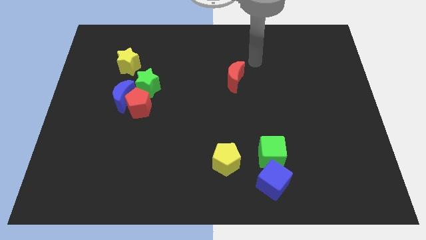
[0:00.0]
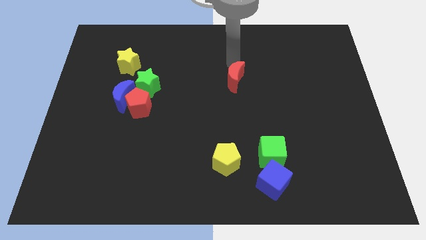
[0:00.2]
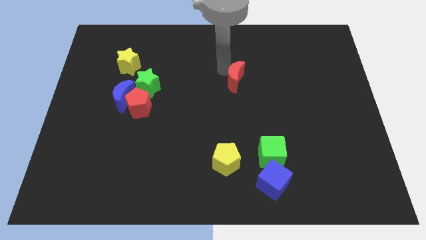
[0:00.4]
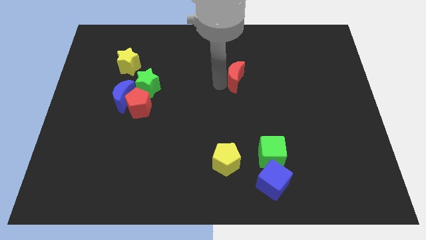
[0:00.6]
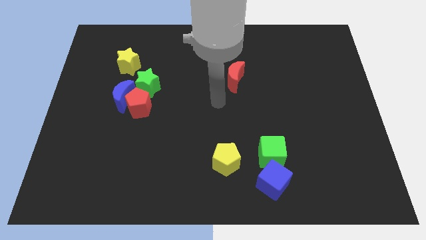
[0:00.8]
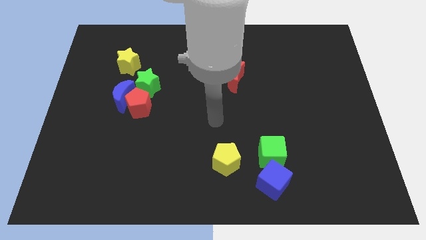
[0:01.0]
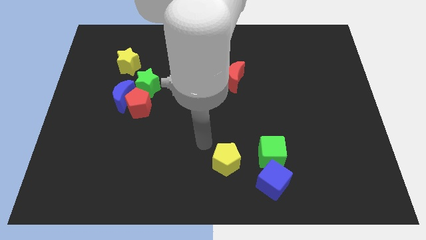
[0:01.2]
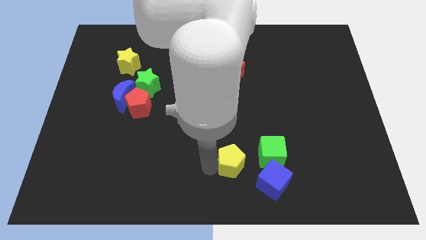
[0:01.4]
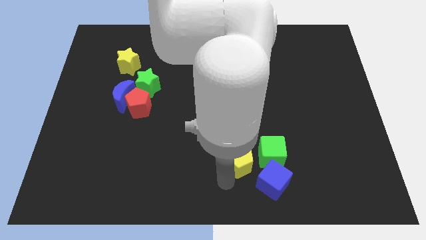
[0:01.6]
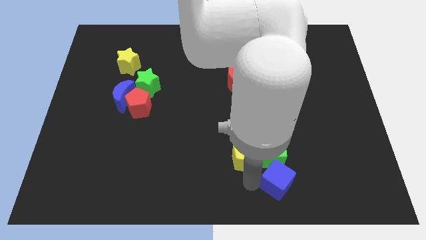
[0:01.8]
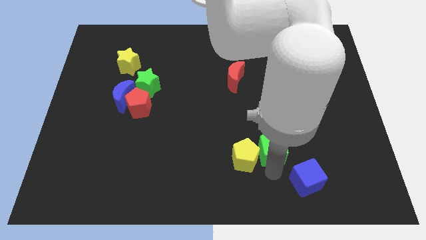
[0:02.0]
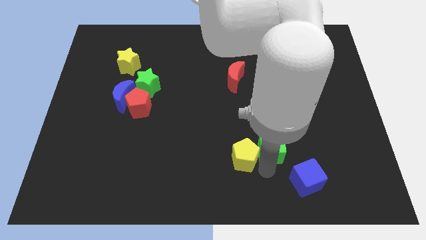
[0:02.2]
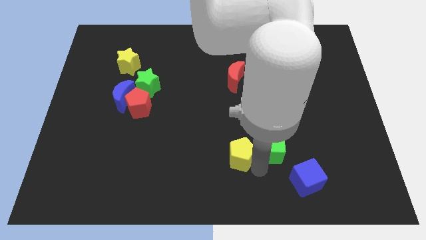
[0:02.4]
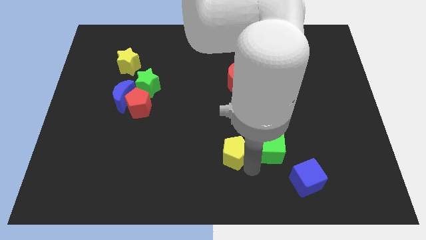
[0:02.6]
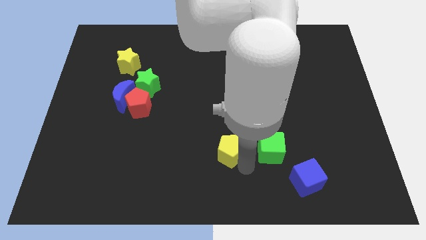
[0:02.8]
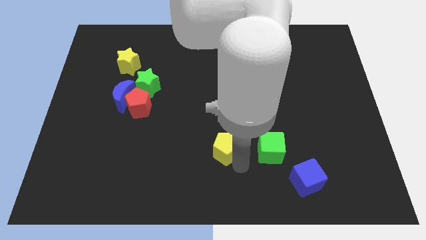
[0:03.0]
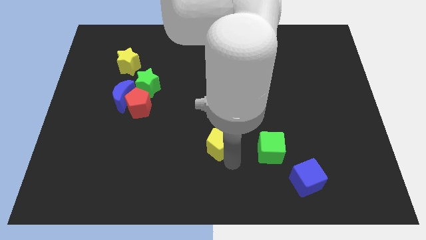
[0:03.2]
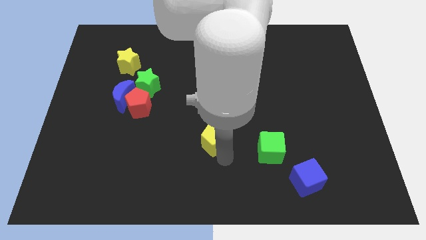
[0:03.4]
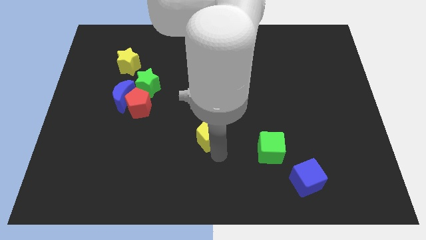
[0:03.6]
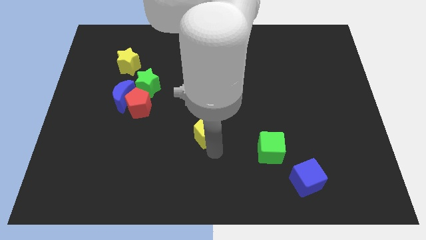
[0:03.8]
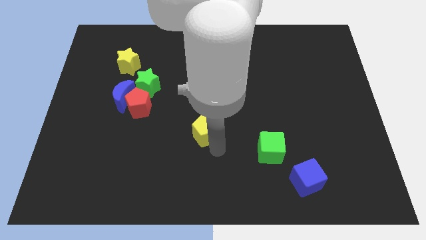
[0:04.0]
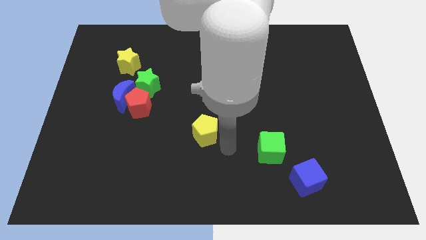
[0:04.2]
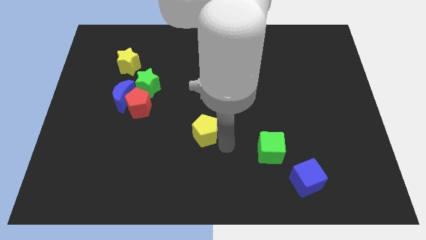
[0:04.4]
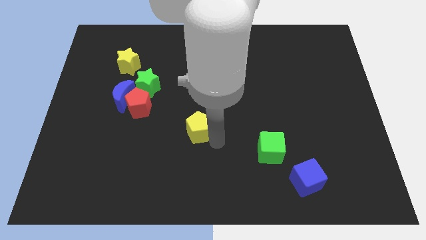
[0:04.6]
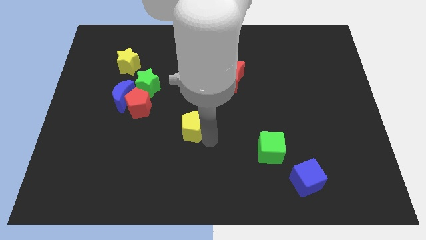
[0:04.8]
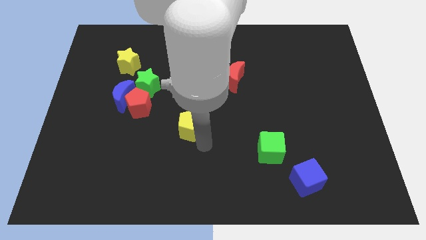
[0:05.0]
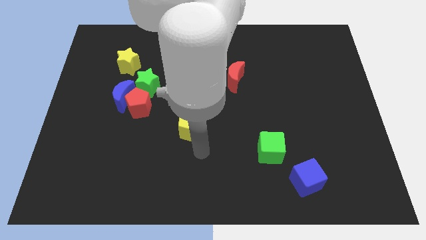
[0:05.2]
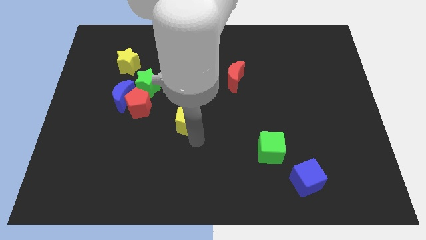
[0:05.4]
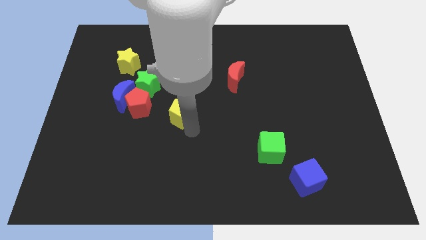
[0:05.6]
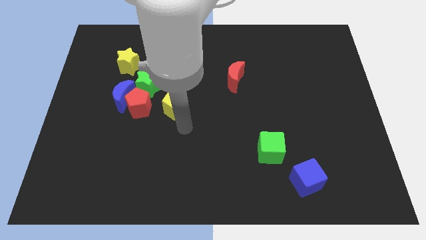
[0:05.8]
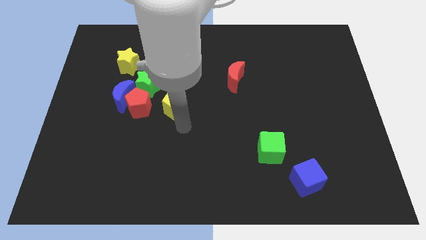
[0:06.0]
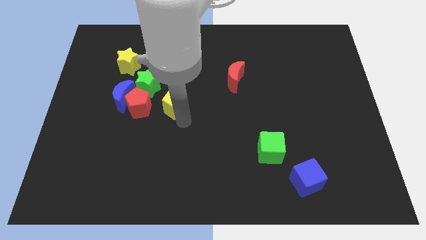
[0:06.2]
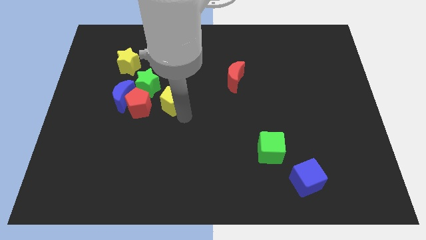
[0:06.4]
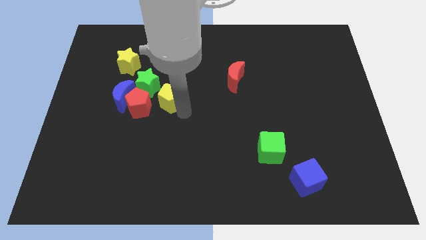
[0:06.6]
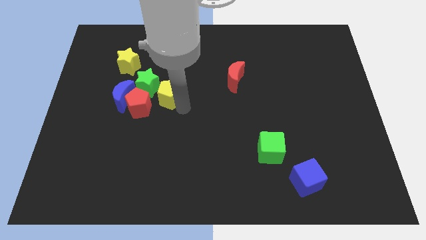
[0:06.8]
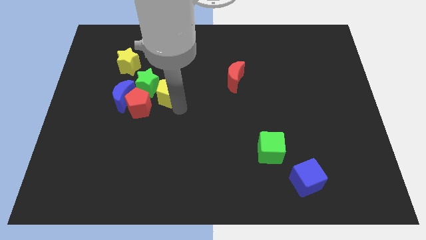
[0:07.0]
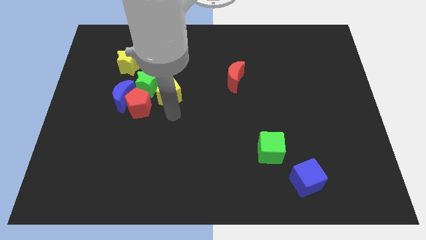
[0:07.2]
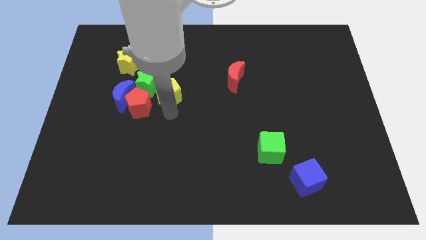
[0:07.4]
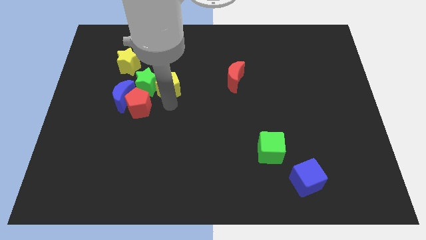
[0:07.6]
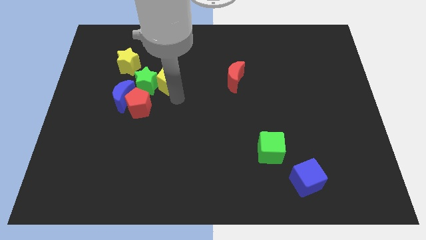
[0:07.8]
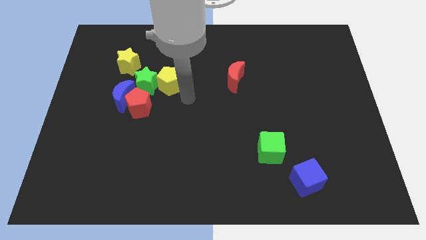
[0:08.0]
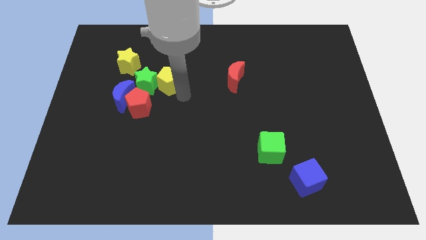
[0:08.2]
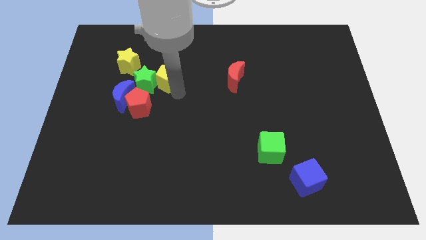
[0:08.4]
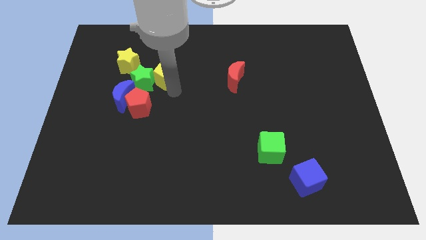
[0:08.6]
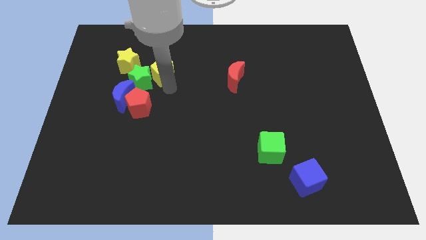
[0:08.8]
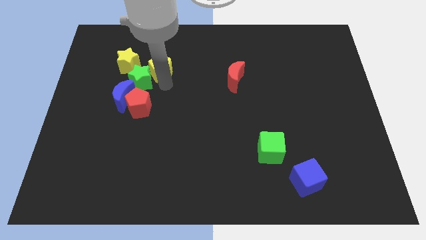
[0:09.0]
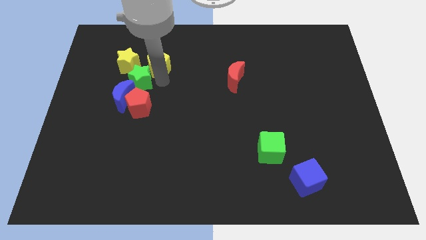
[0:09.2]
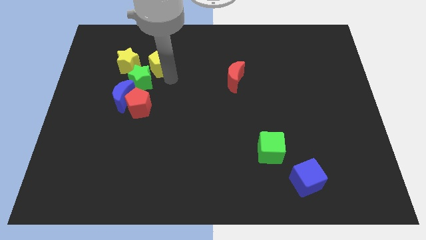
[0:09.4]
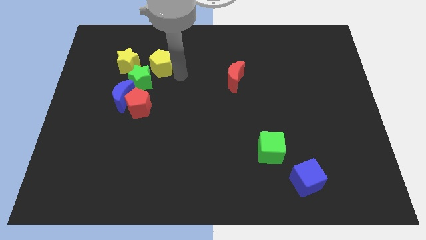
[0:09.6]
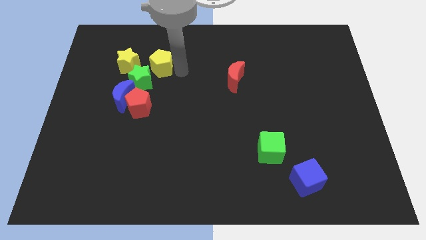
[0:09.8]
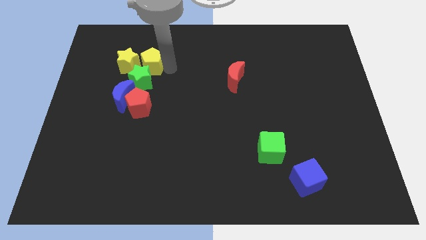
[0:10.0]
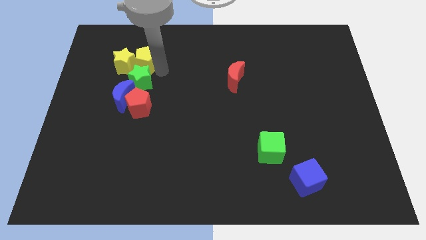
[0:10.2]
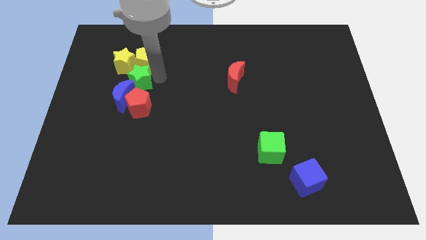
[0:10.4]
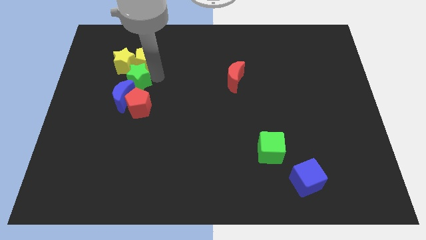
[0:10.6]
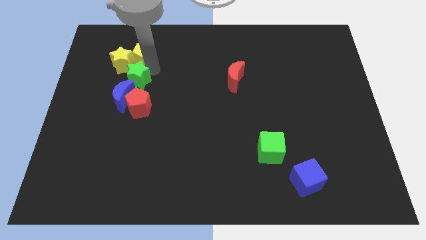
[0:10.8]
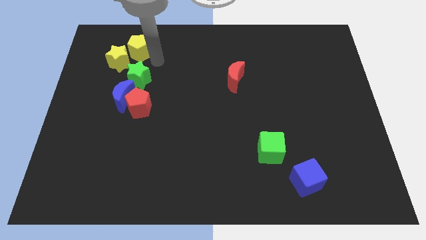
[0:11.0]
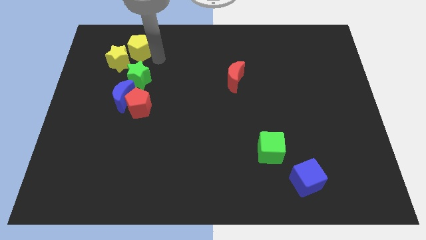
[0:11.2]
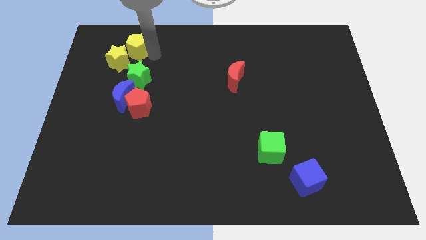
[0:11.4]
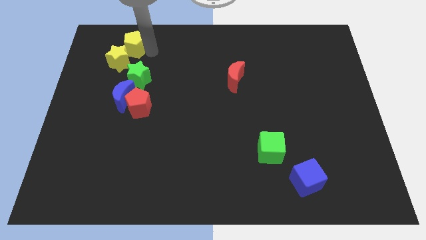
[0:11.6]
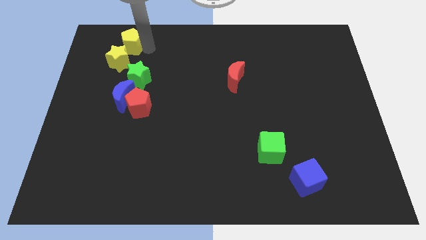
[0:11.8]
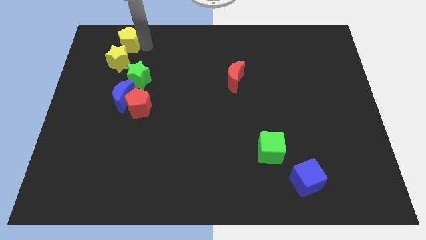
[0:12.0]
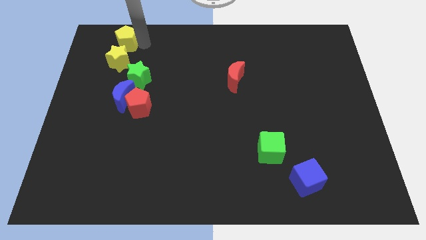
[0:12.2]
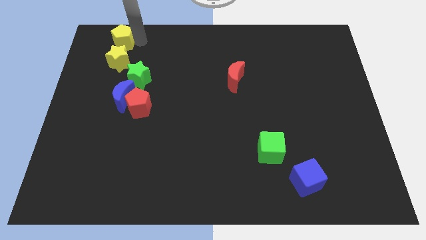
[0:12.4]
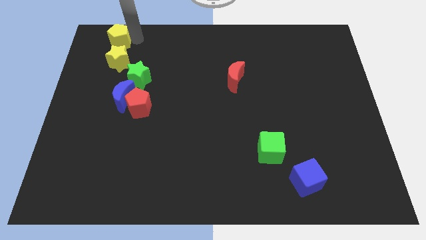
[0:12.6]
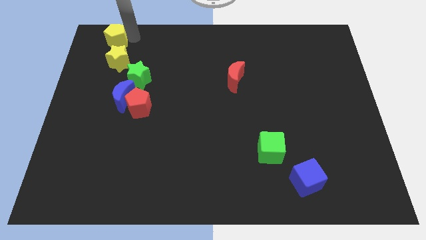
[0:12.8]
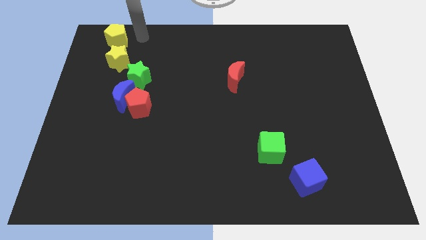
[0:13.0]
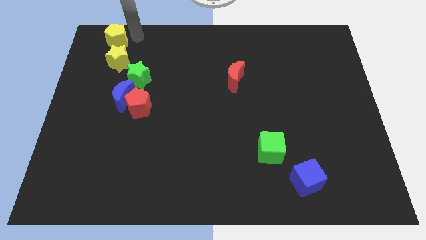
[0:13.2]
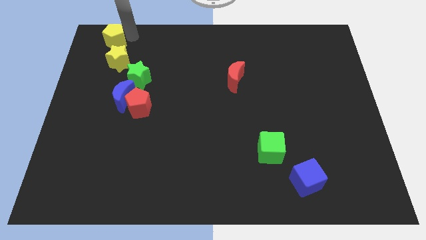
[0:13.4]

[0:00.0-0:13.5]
move the yellow pentagon to the top left
